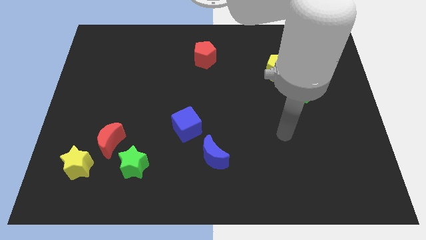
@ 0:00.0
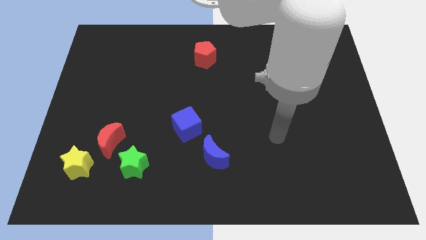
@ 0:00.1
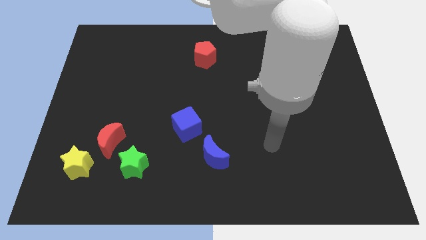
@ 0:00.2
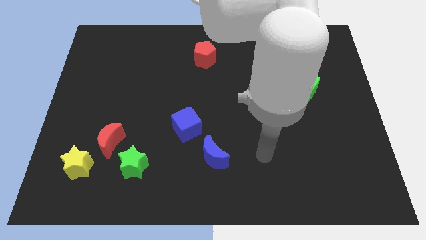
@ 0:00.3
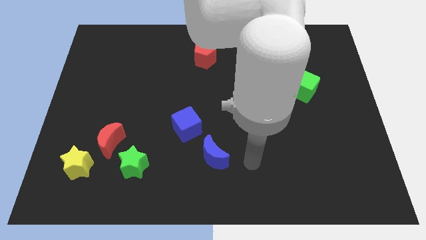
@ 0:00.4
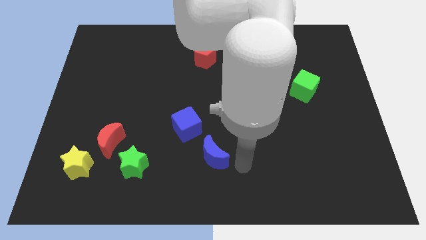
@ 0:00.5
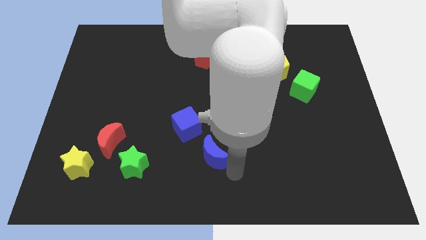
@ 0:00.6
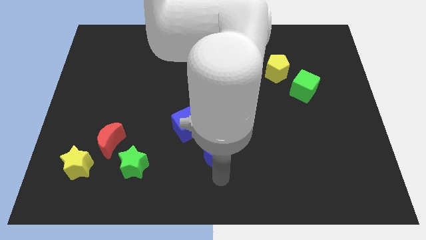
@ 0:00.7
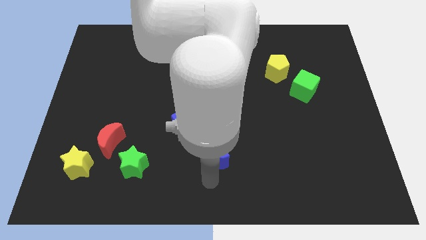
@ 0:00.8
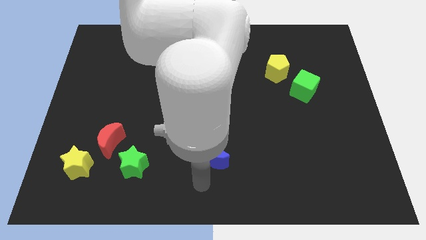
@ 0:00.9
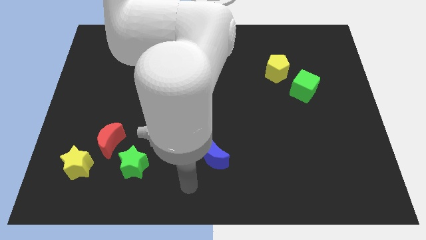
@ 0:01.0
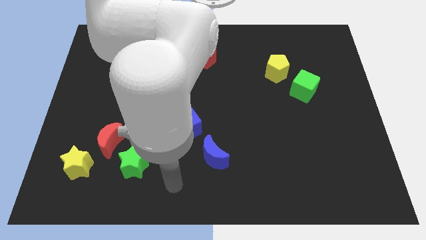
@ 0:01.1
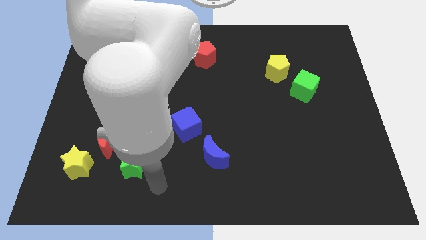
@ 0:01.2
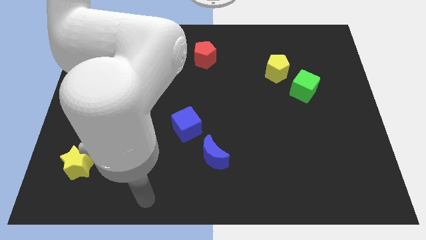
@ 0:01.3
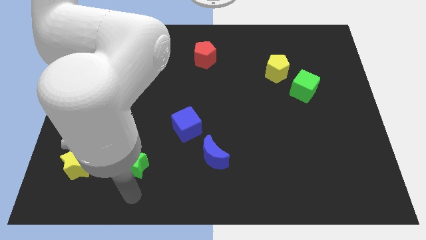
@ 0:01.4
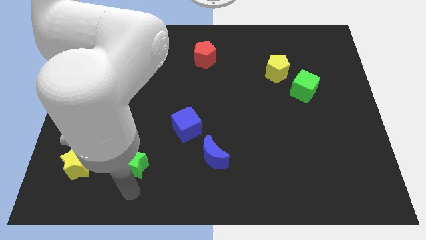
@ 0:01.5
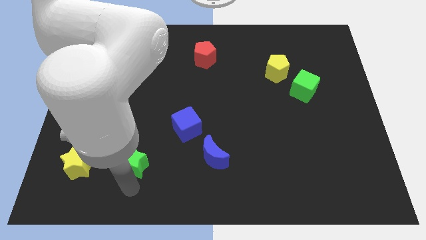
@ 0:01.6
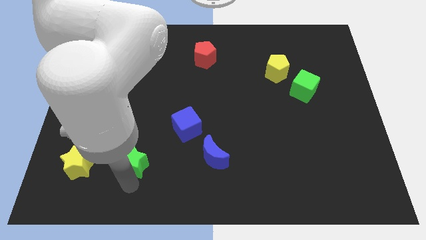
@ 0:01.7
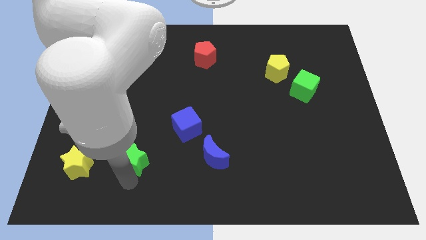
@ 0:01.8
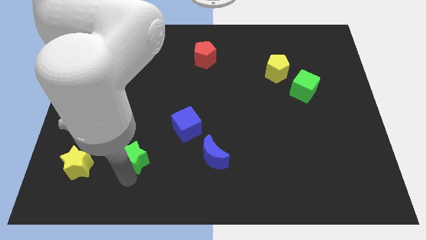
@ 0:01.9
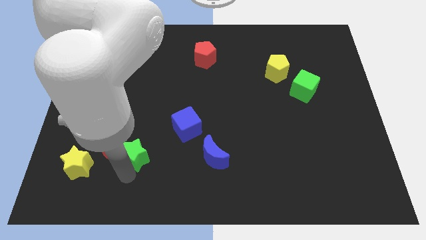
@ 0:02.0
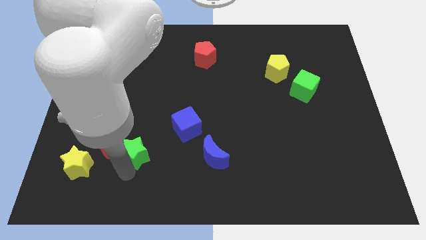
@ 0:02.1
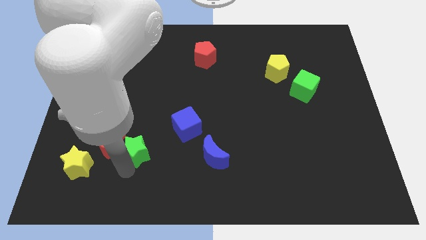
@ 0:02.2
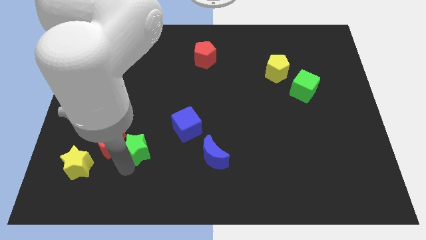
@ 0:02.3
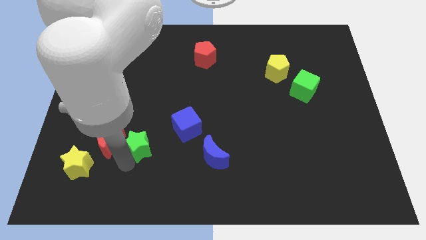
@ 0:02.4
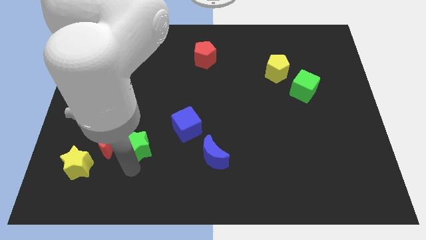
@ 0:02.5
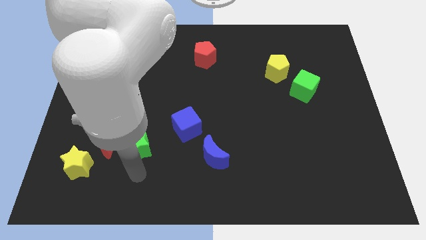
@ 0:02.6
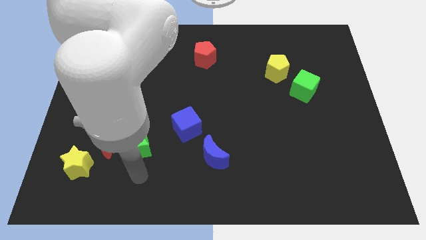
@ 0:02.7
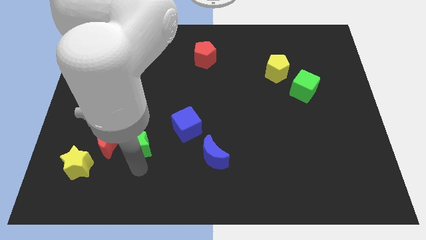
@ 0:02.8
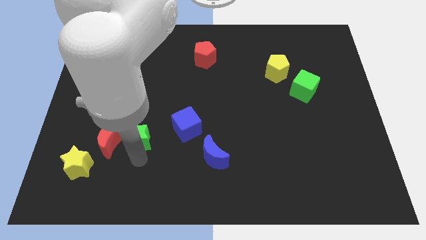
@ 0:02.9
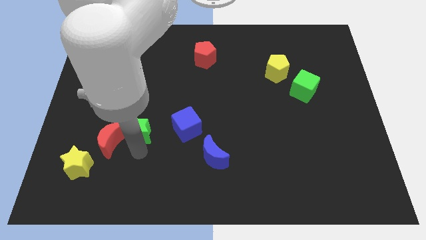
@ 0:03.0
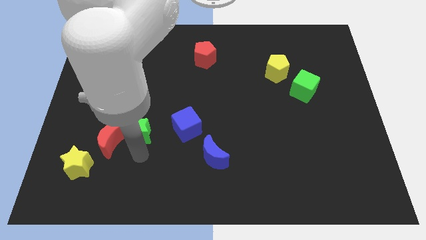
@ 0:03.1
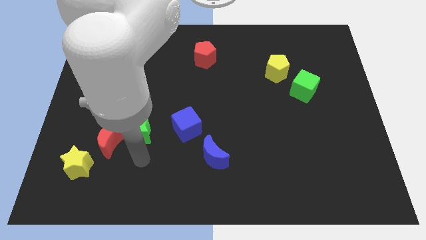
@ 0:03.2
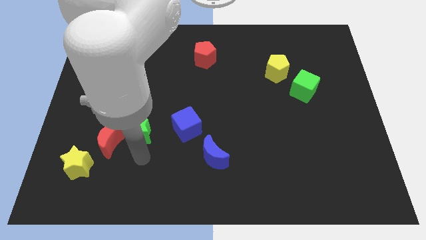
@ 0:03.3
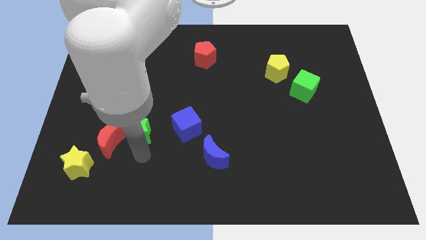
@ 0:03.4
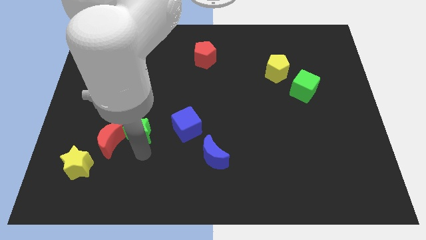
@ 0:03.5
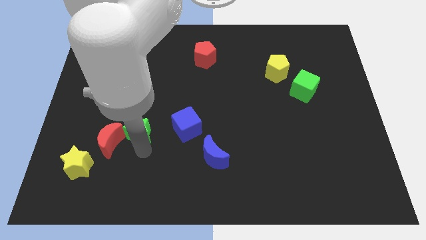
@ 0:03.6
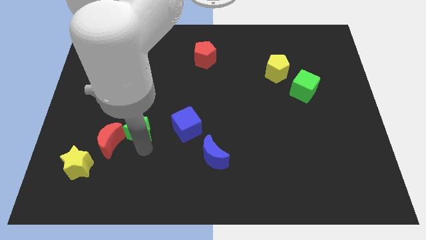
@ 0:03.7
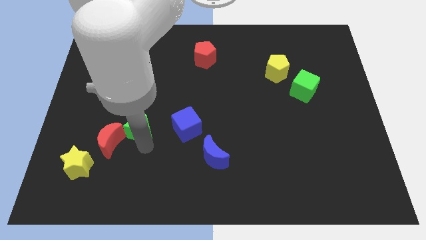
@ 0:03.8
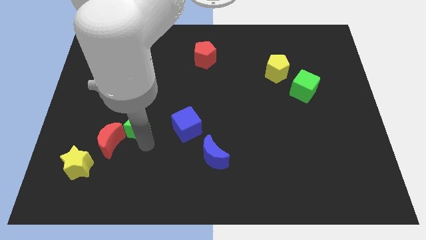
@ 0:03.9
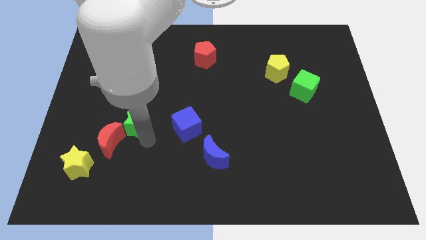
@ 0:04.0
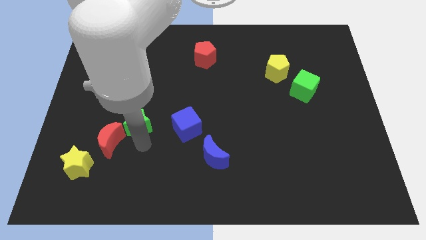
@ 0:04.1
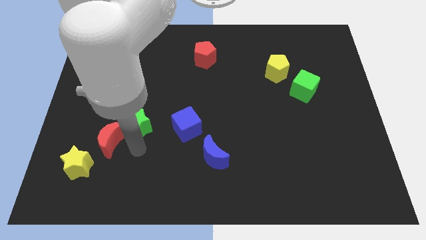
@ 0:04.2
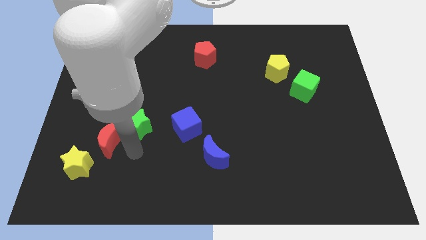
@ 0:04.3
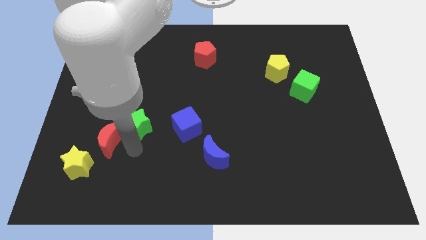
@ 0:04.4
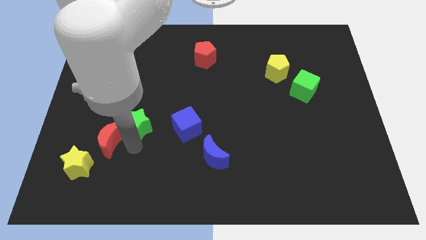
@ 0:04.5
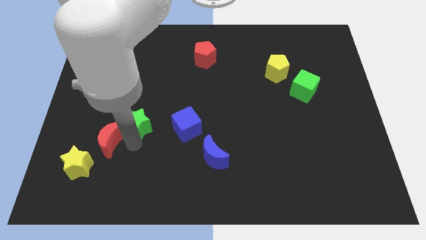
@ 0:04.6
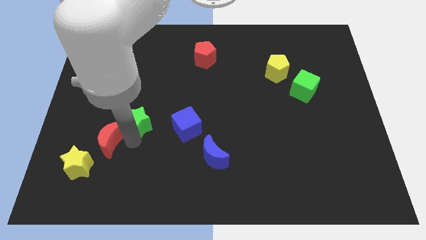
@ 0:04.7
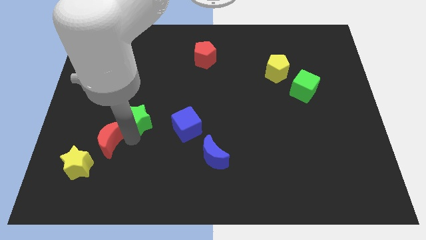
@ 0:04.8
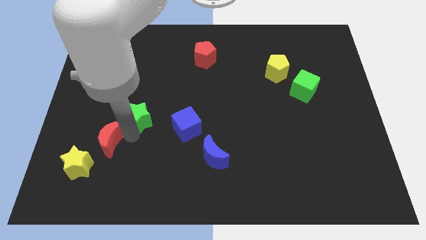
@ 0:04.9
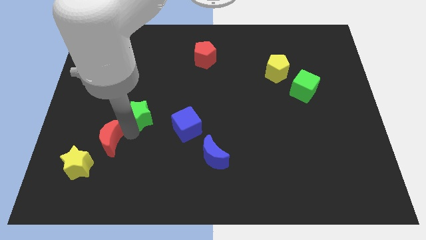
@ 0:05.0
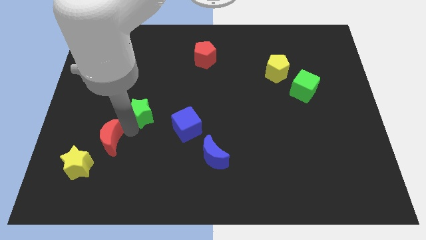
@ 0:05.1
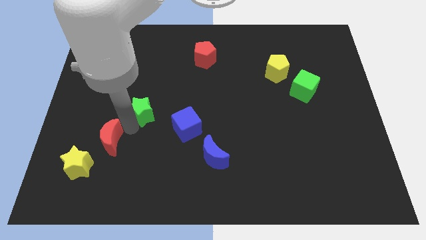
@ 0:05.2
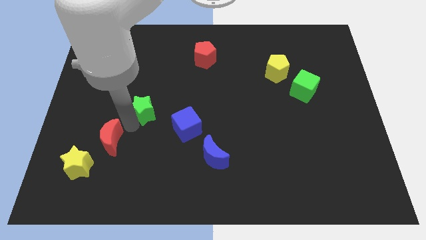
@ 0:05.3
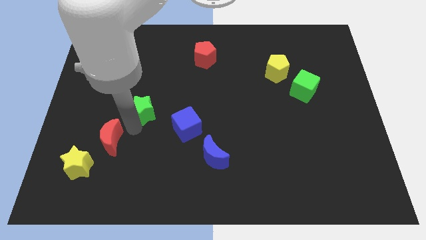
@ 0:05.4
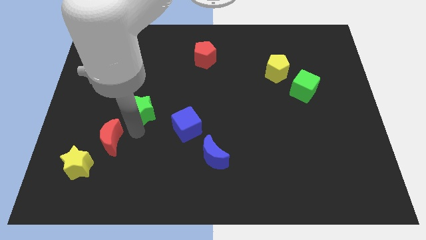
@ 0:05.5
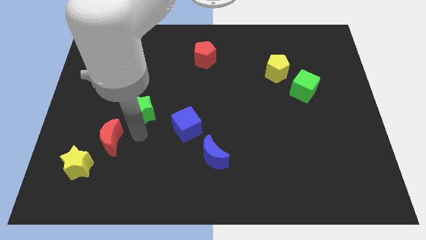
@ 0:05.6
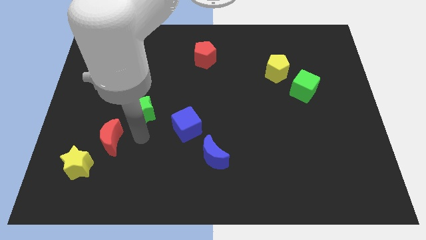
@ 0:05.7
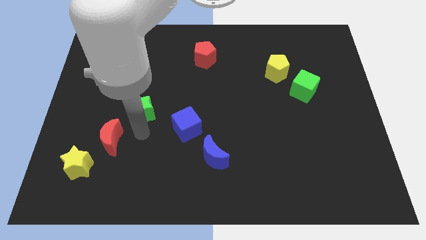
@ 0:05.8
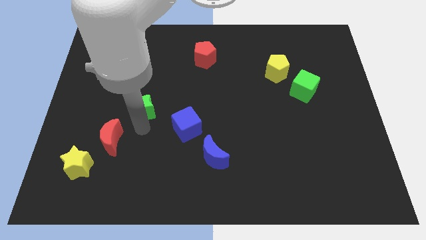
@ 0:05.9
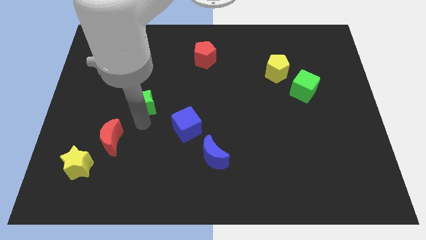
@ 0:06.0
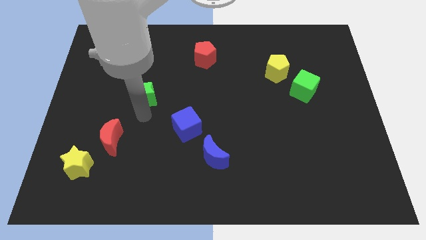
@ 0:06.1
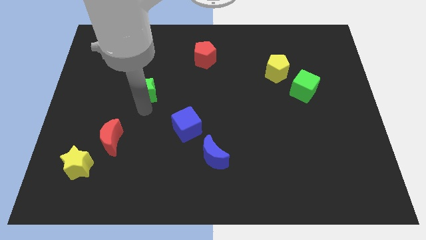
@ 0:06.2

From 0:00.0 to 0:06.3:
move the green star up

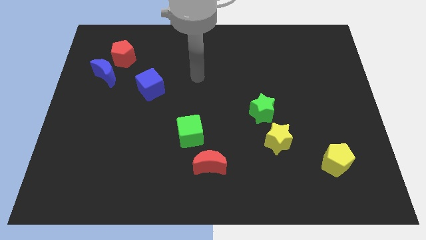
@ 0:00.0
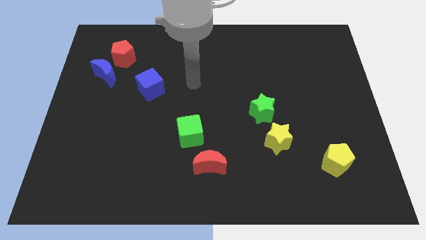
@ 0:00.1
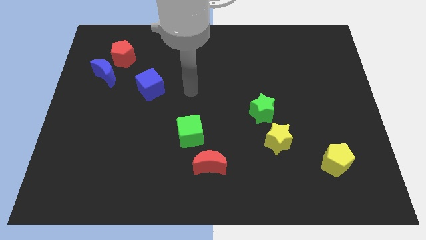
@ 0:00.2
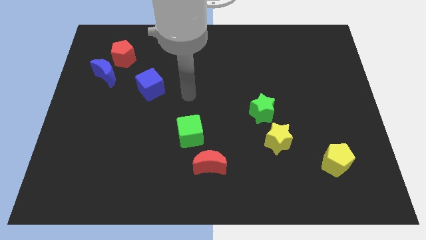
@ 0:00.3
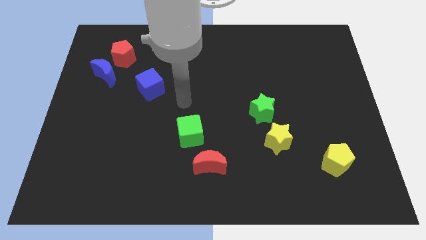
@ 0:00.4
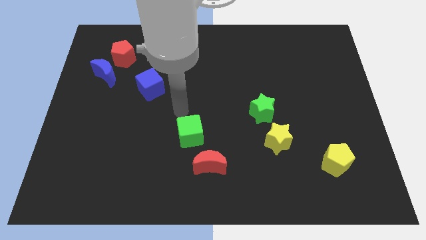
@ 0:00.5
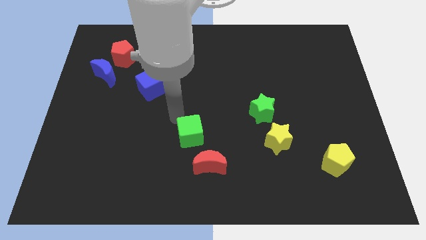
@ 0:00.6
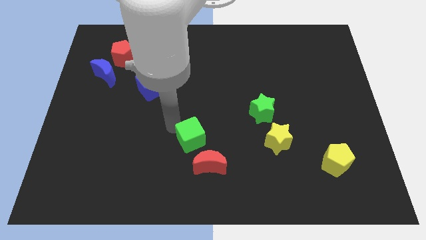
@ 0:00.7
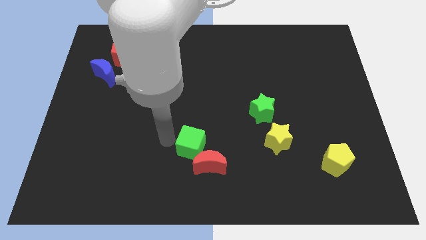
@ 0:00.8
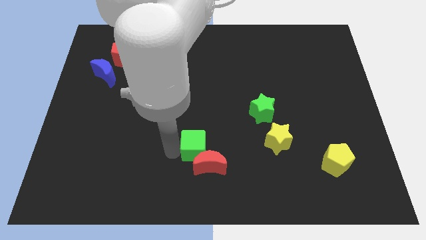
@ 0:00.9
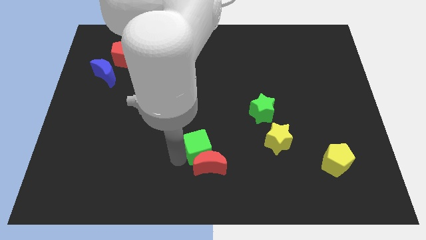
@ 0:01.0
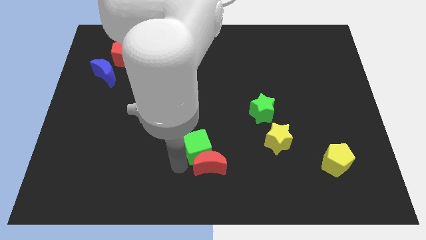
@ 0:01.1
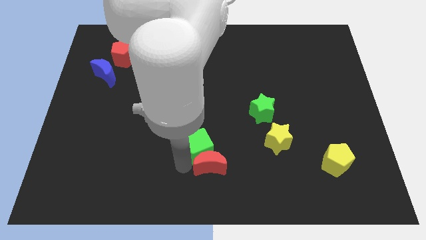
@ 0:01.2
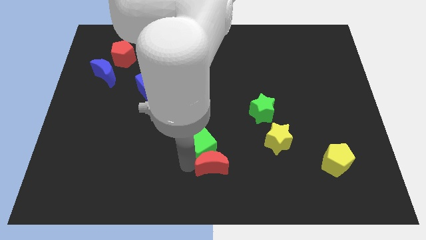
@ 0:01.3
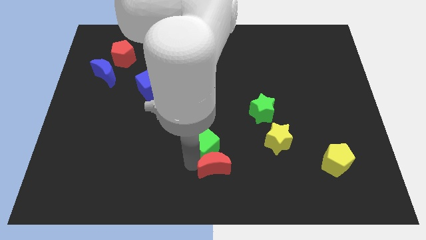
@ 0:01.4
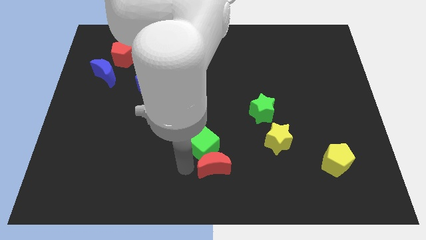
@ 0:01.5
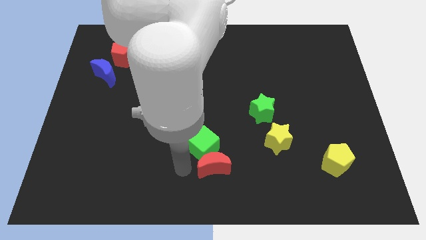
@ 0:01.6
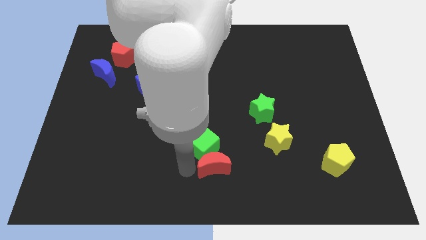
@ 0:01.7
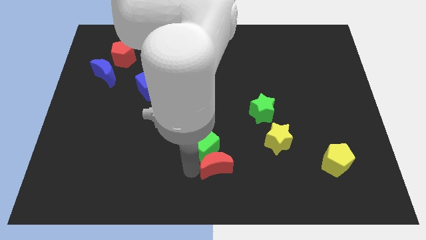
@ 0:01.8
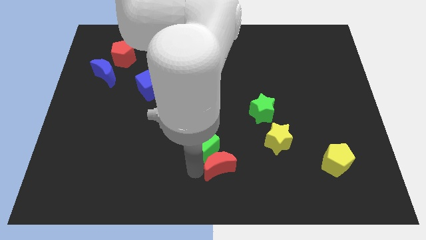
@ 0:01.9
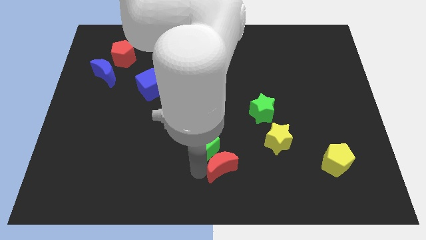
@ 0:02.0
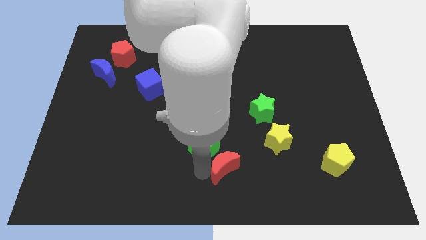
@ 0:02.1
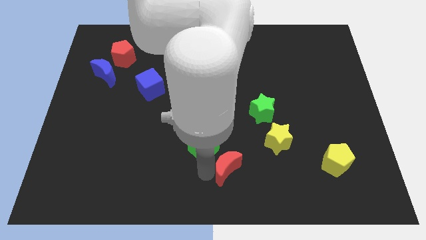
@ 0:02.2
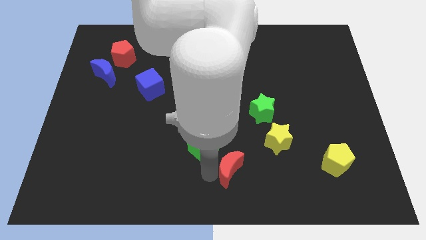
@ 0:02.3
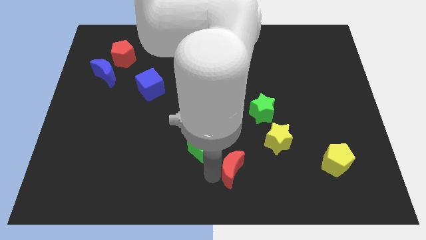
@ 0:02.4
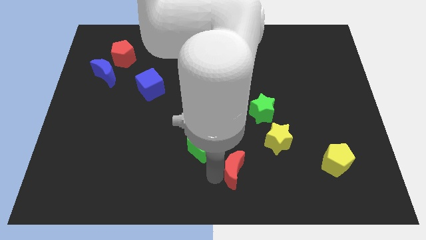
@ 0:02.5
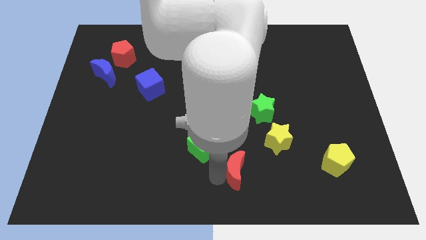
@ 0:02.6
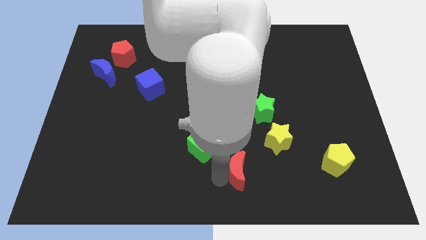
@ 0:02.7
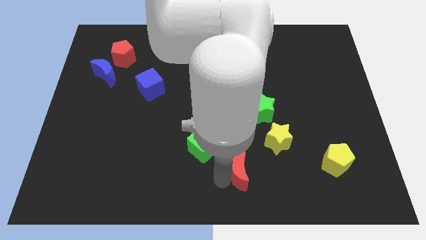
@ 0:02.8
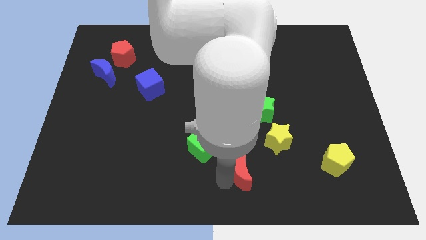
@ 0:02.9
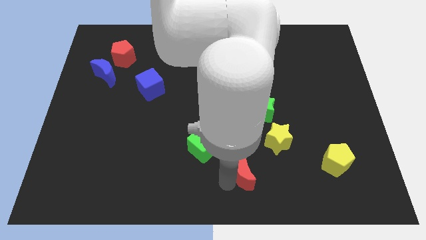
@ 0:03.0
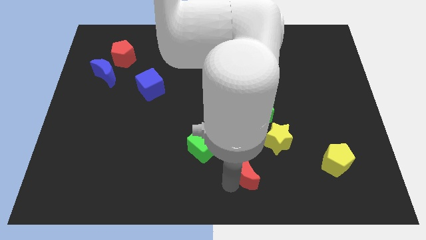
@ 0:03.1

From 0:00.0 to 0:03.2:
push the red moon a bit right
